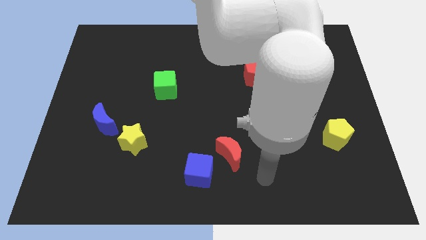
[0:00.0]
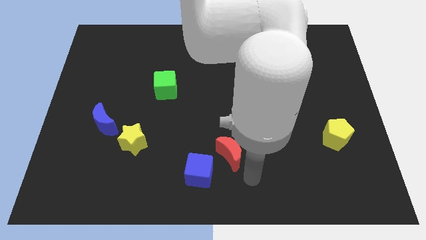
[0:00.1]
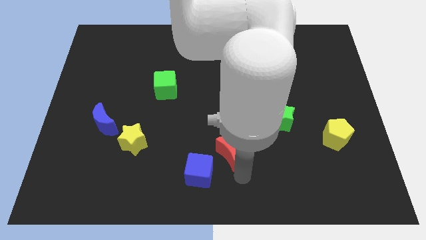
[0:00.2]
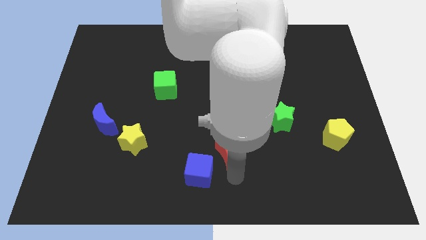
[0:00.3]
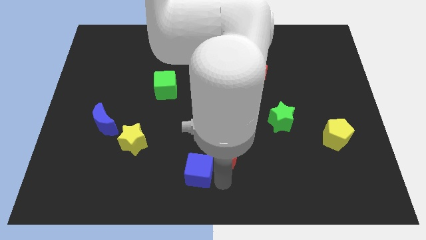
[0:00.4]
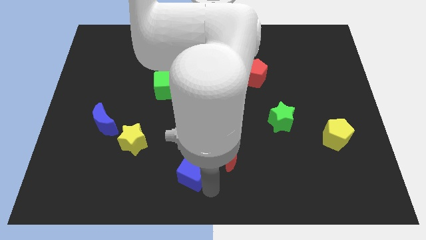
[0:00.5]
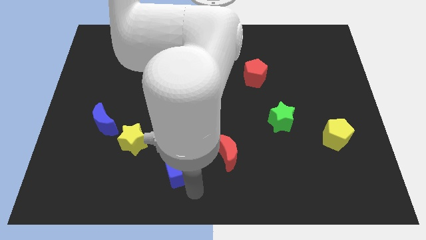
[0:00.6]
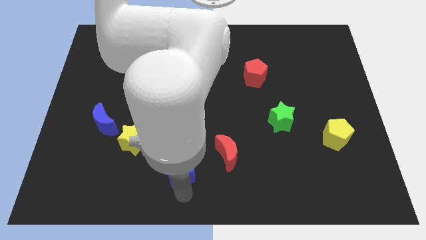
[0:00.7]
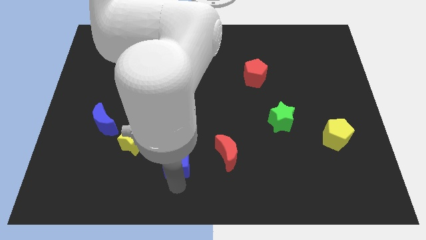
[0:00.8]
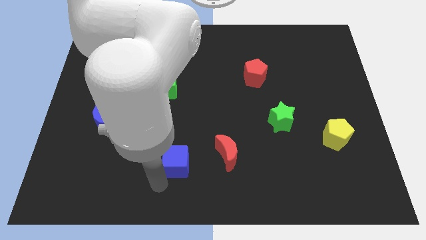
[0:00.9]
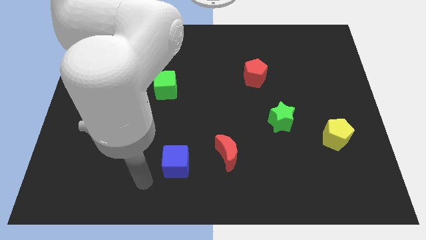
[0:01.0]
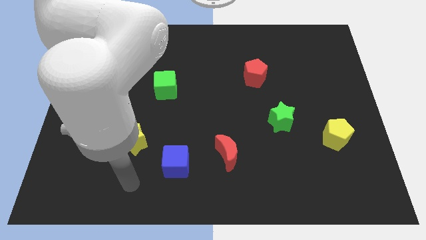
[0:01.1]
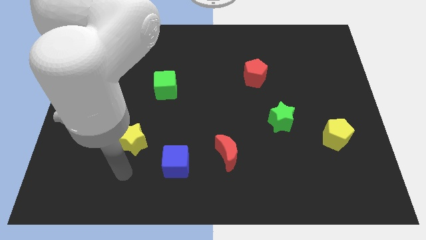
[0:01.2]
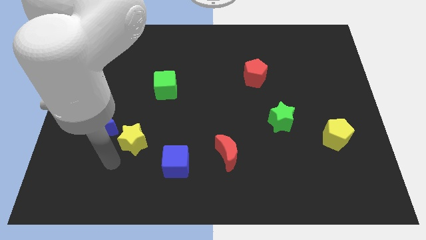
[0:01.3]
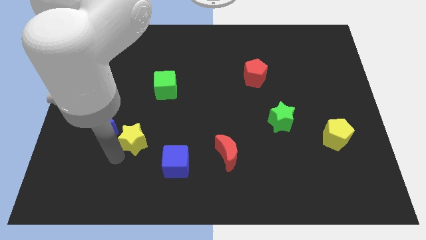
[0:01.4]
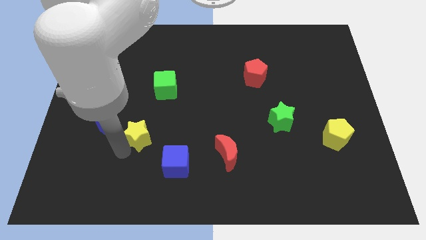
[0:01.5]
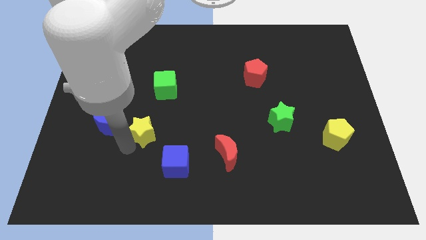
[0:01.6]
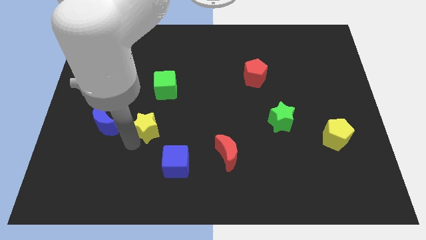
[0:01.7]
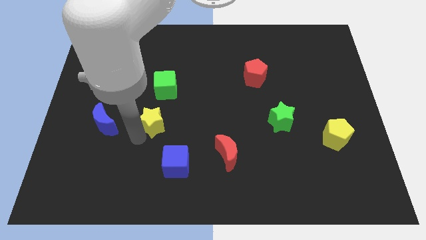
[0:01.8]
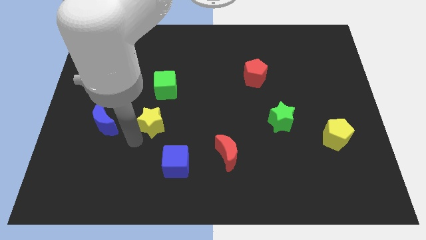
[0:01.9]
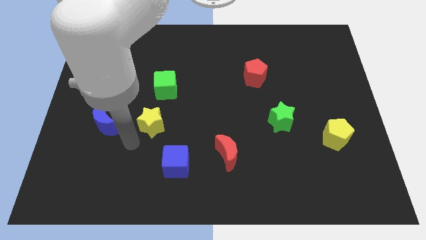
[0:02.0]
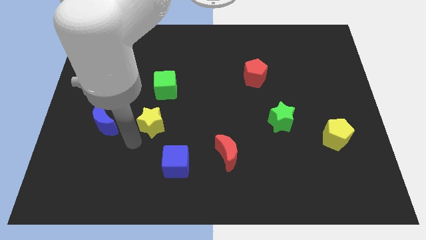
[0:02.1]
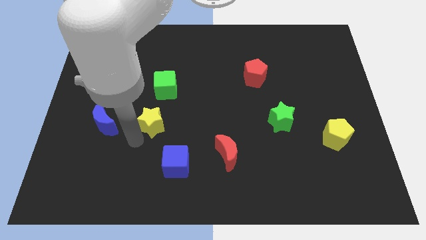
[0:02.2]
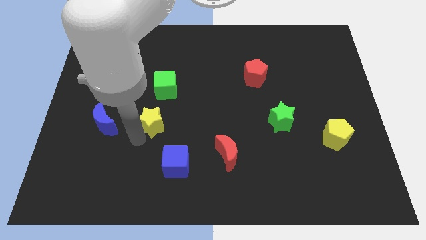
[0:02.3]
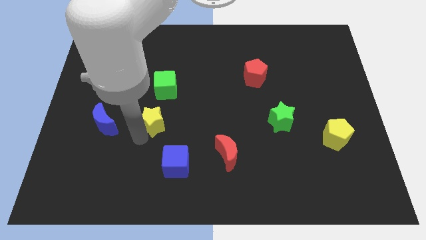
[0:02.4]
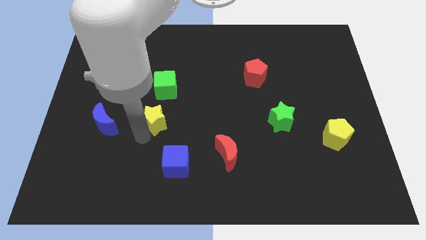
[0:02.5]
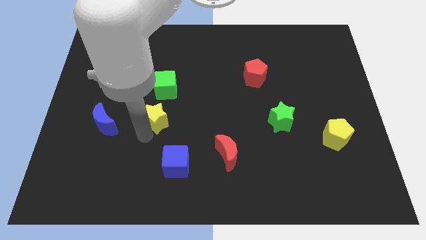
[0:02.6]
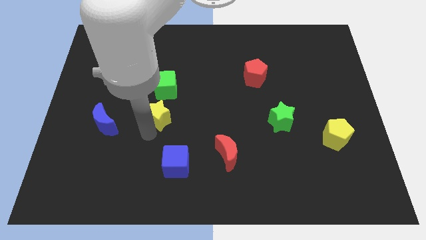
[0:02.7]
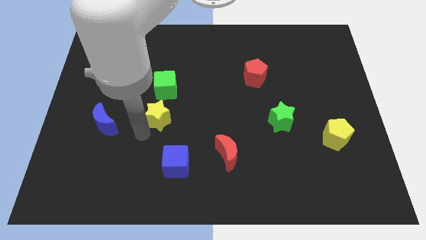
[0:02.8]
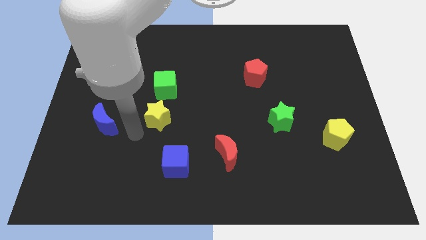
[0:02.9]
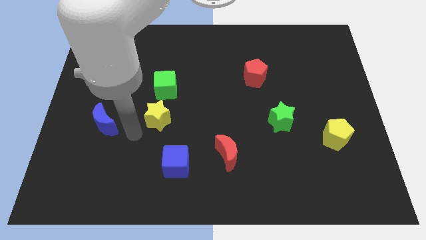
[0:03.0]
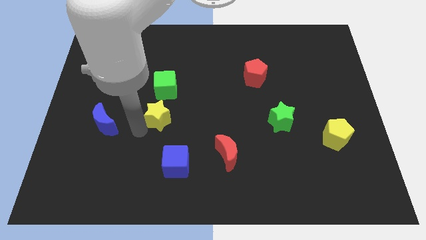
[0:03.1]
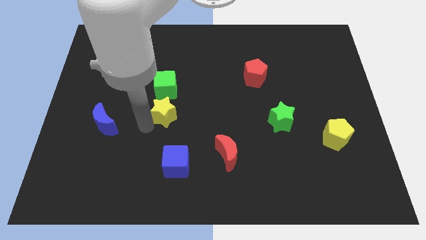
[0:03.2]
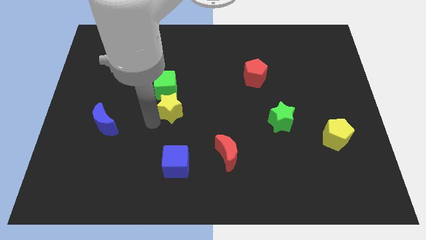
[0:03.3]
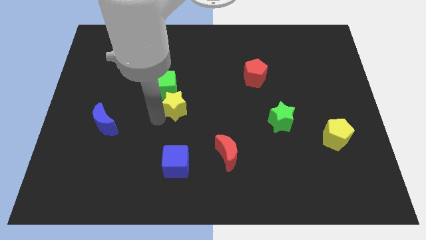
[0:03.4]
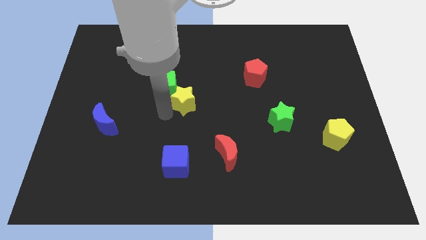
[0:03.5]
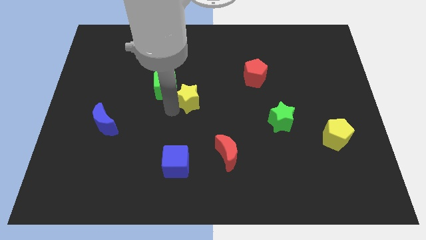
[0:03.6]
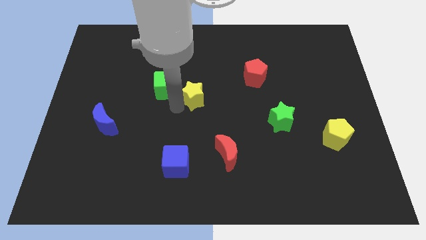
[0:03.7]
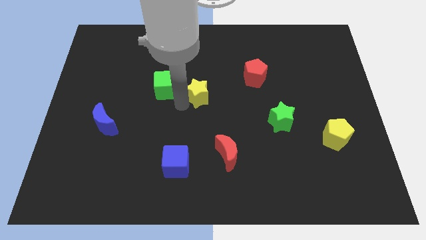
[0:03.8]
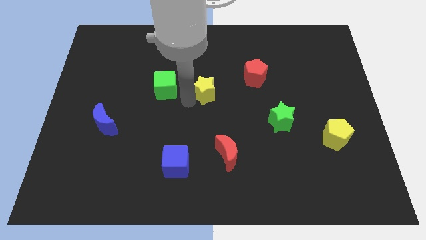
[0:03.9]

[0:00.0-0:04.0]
move the yellow star upwards and to the right

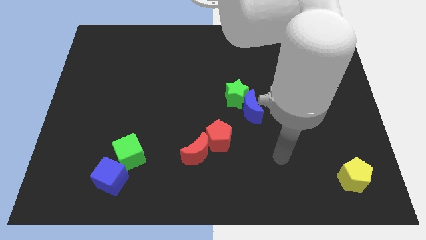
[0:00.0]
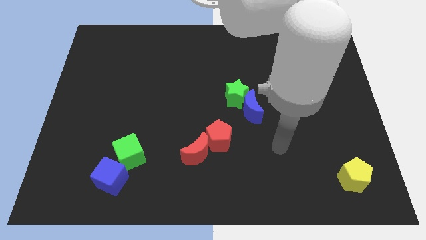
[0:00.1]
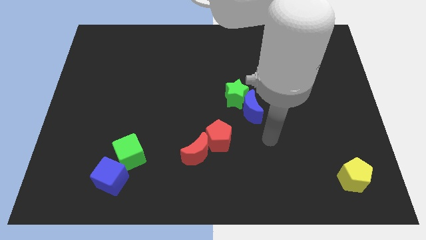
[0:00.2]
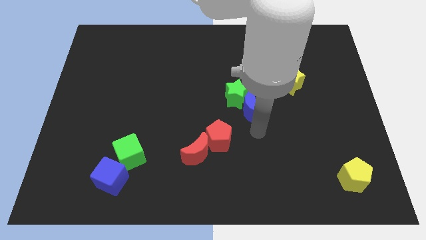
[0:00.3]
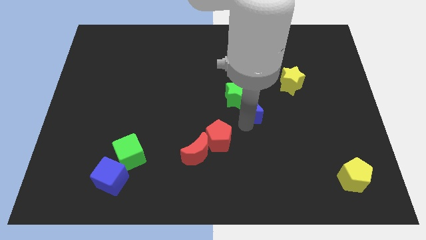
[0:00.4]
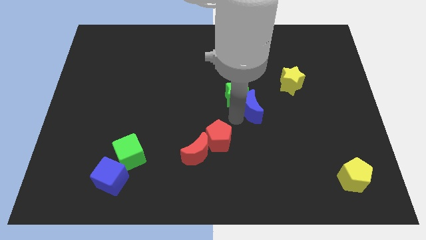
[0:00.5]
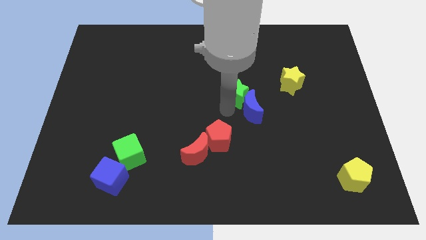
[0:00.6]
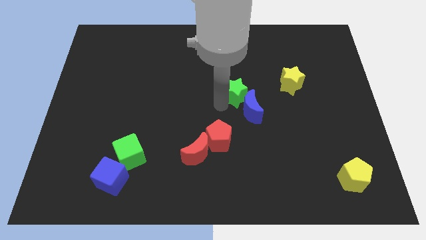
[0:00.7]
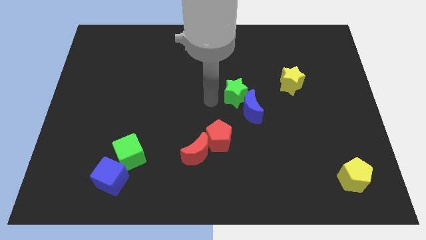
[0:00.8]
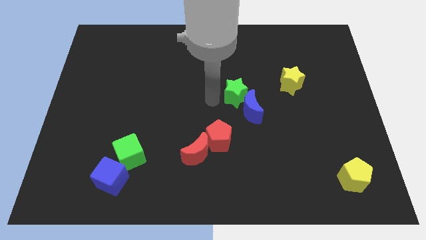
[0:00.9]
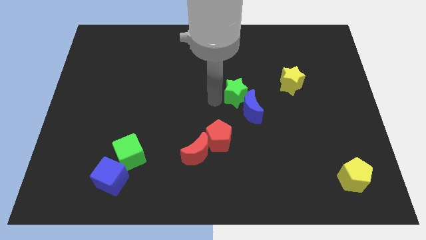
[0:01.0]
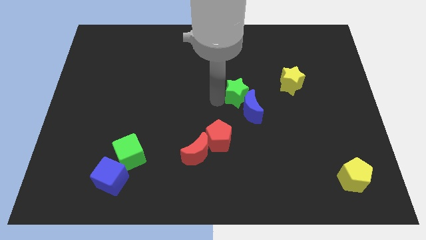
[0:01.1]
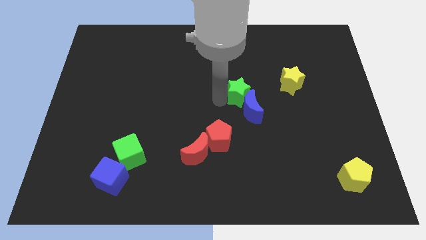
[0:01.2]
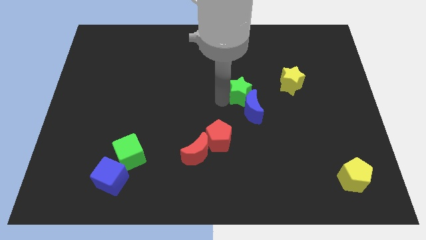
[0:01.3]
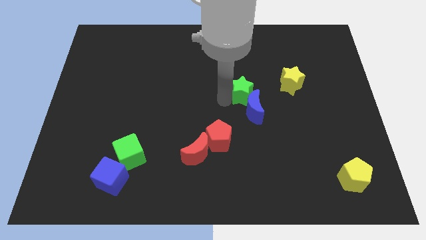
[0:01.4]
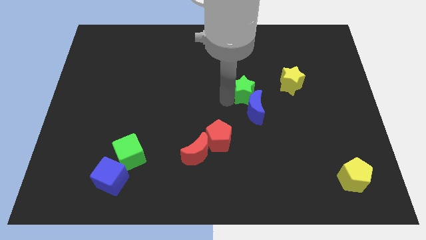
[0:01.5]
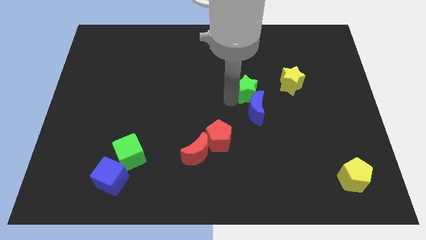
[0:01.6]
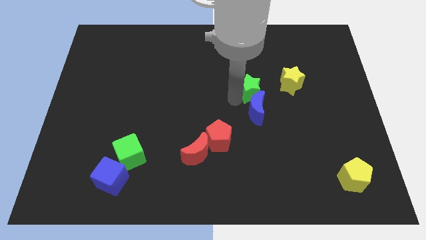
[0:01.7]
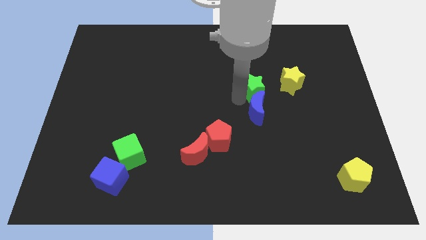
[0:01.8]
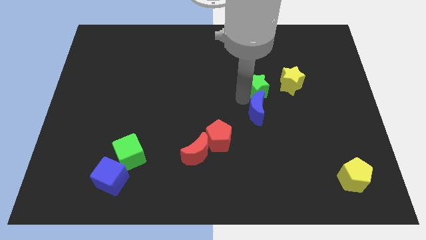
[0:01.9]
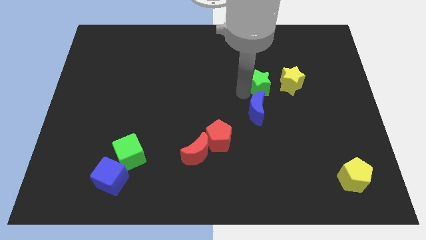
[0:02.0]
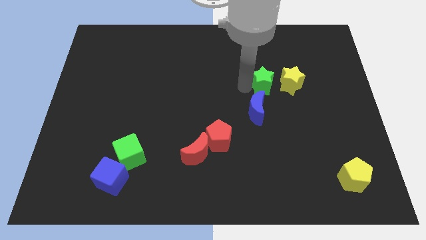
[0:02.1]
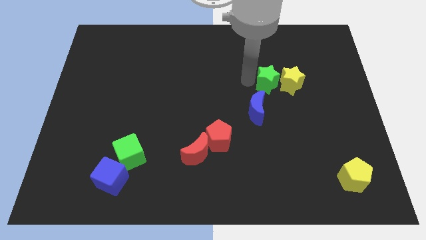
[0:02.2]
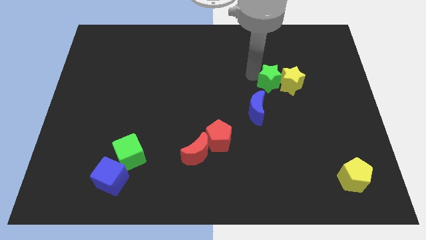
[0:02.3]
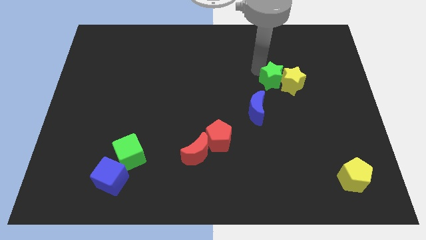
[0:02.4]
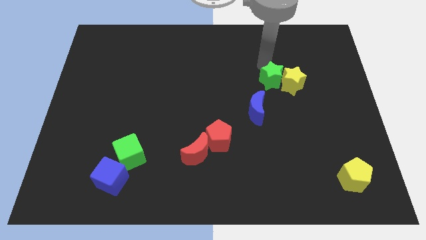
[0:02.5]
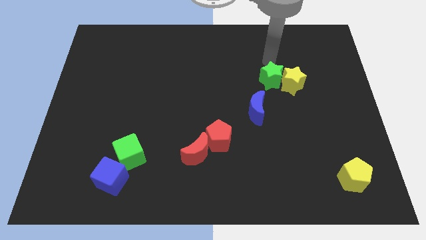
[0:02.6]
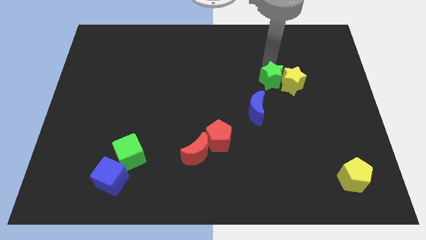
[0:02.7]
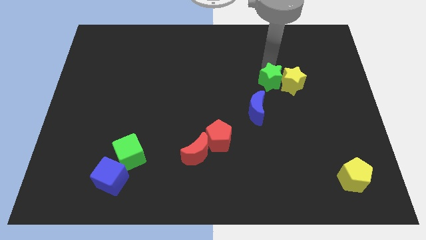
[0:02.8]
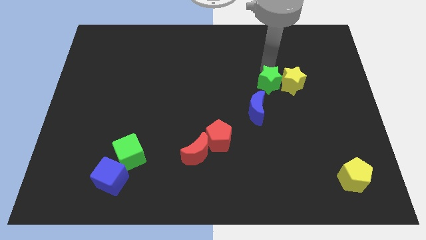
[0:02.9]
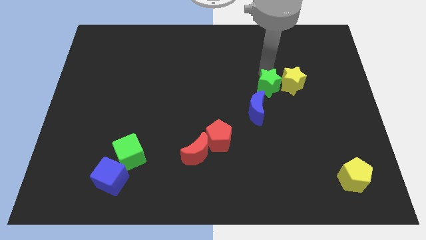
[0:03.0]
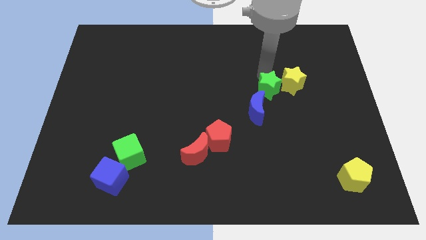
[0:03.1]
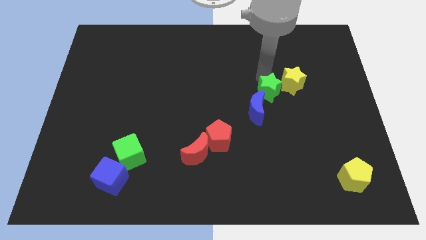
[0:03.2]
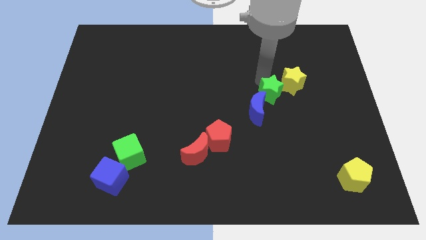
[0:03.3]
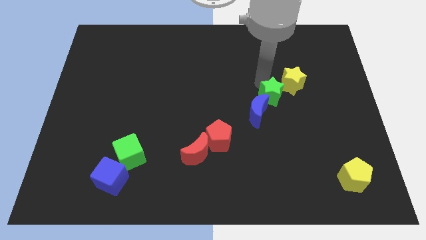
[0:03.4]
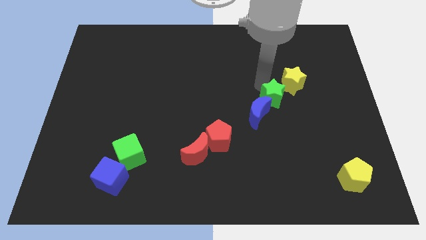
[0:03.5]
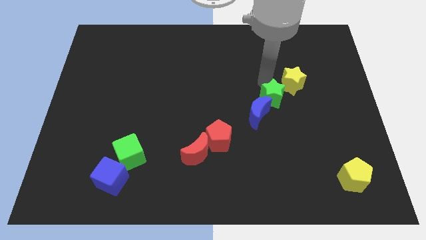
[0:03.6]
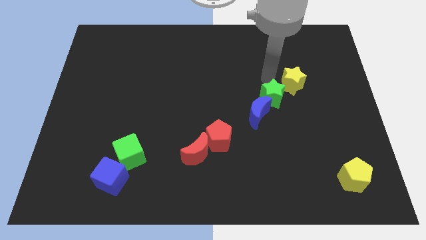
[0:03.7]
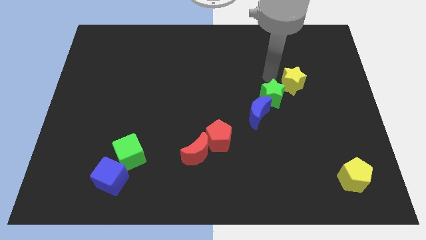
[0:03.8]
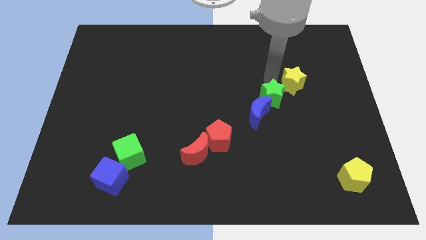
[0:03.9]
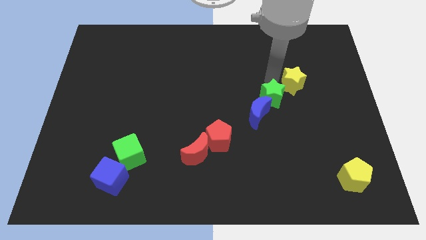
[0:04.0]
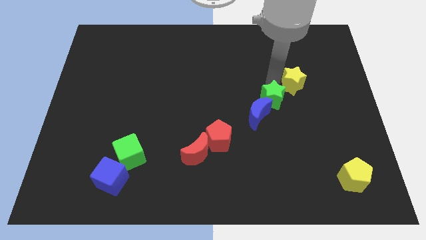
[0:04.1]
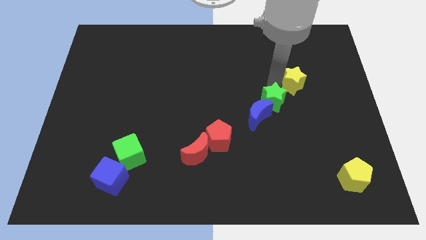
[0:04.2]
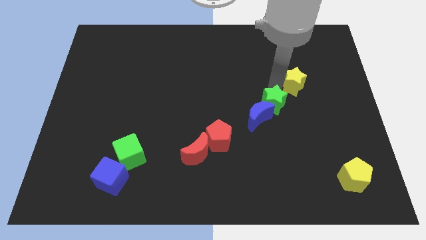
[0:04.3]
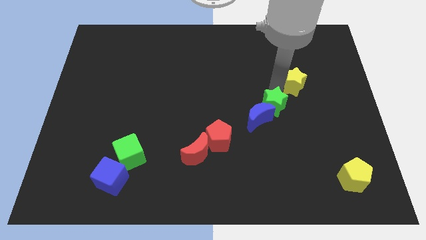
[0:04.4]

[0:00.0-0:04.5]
move the green star slightly downwards and then right
